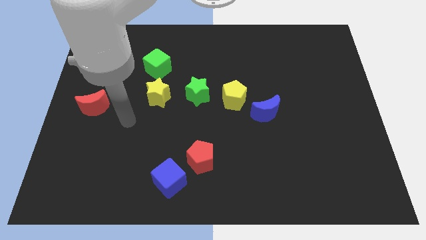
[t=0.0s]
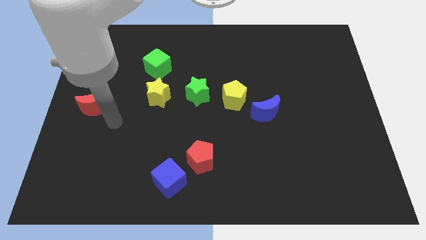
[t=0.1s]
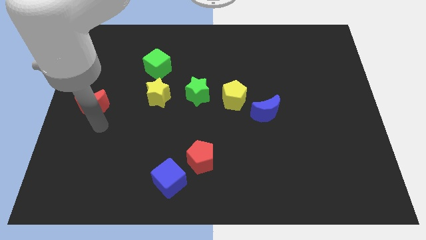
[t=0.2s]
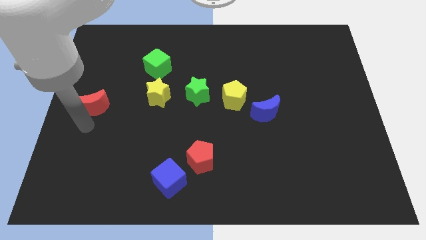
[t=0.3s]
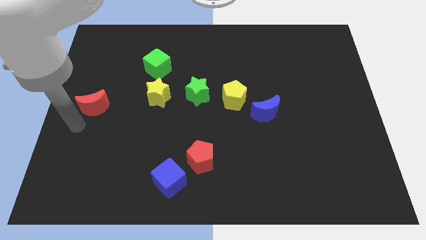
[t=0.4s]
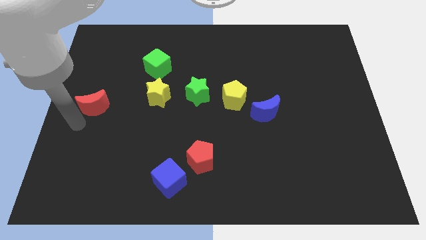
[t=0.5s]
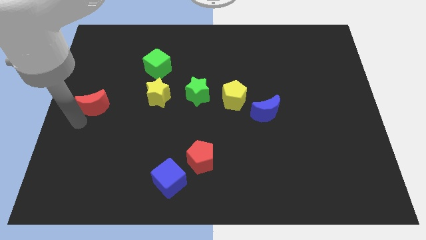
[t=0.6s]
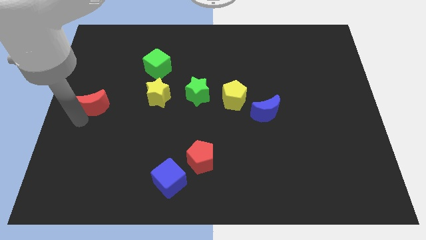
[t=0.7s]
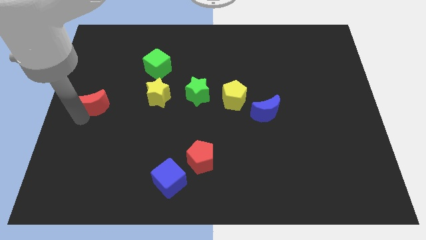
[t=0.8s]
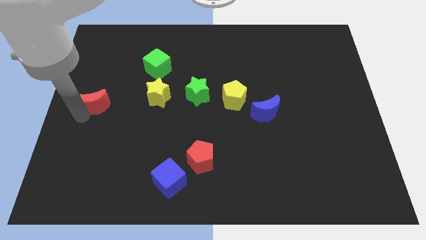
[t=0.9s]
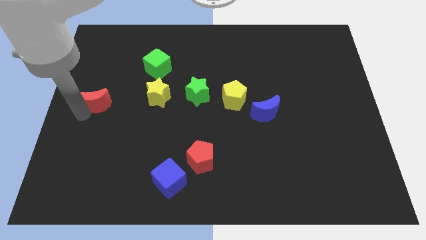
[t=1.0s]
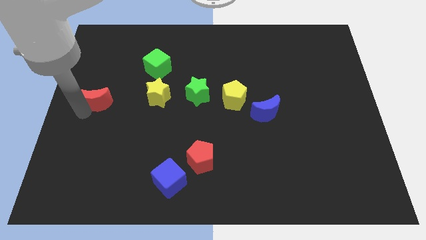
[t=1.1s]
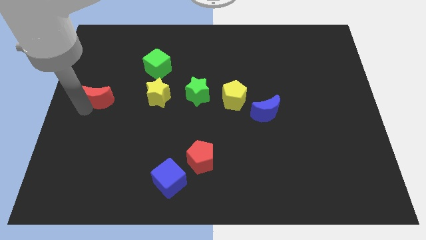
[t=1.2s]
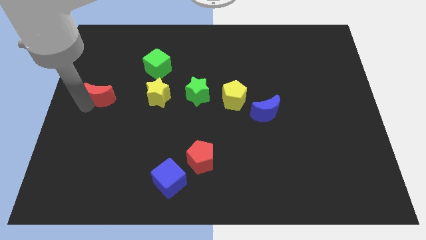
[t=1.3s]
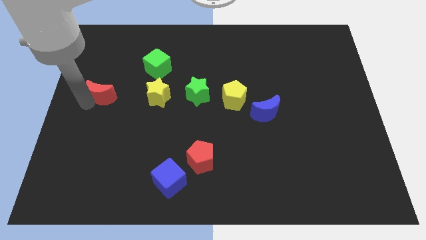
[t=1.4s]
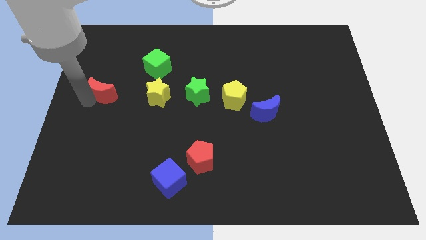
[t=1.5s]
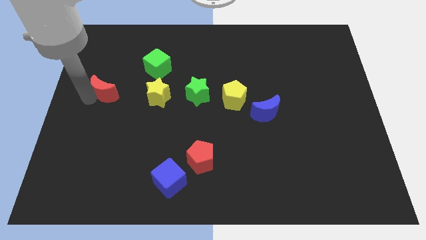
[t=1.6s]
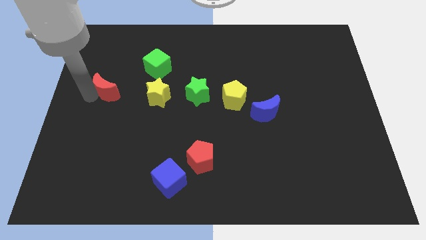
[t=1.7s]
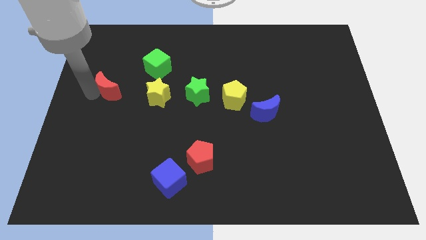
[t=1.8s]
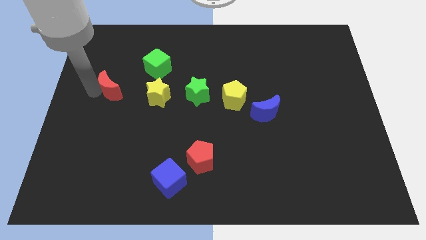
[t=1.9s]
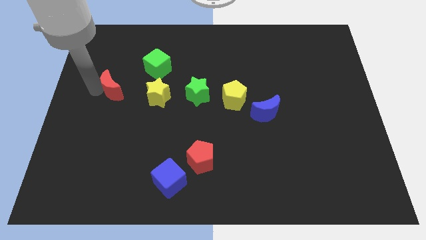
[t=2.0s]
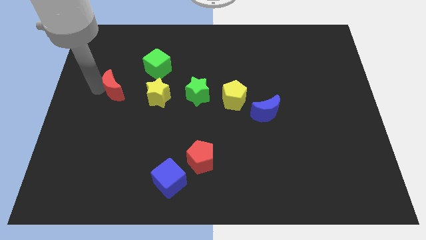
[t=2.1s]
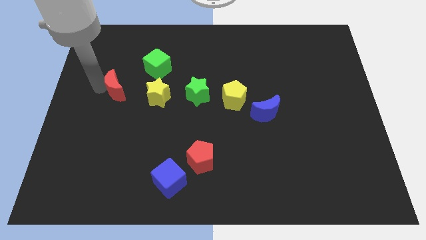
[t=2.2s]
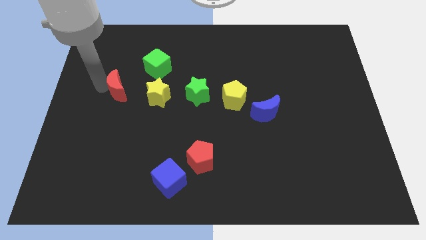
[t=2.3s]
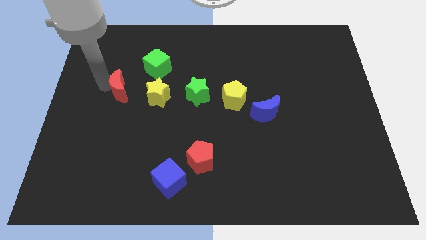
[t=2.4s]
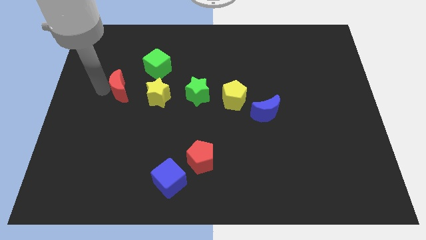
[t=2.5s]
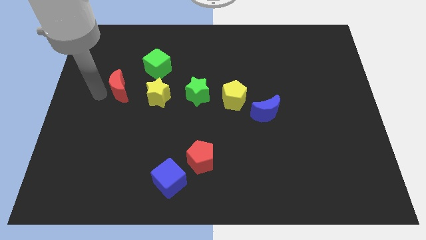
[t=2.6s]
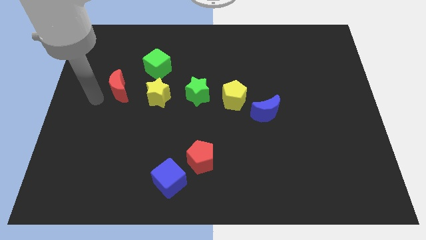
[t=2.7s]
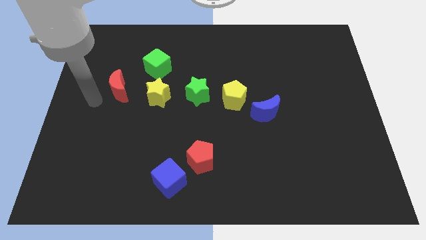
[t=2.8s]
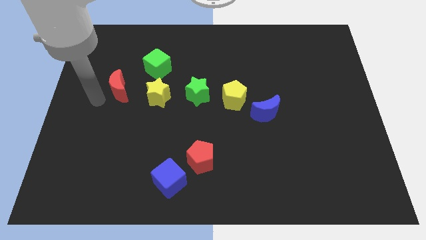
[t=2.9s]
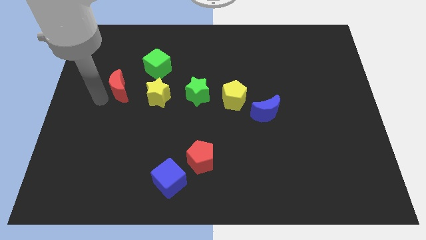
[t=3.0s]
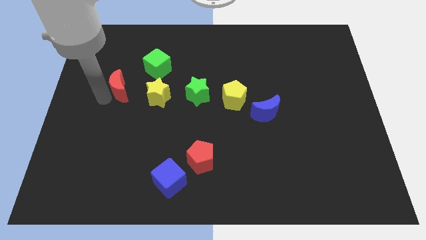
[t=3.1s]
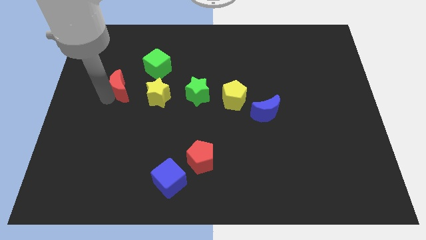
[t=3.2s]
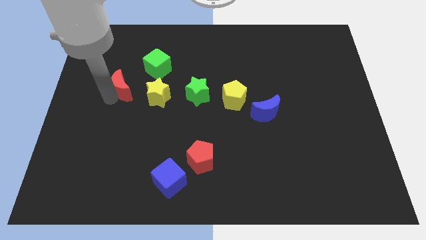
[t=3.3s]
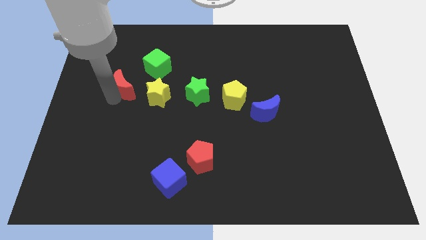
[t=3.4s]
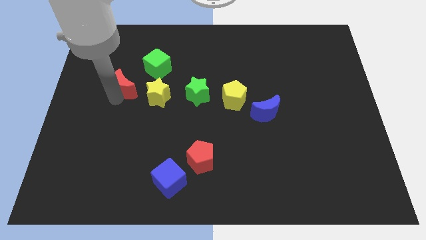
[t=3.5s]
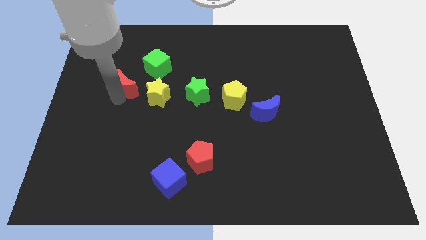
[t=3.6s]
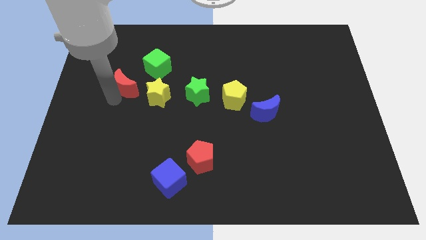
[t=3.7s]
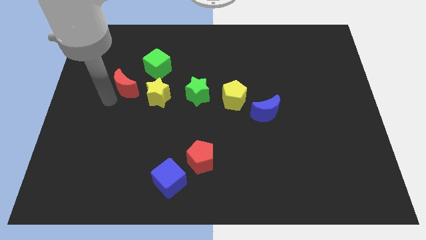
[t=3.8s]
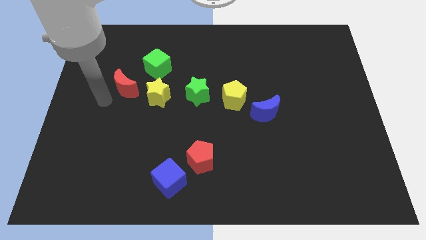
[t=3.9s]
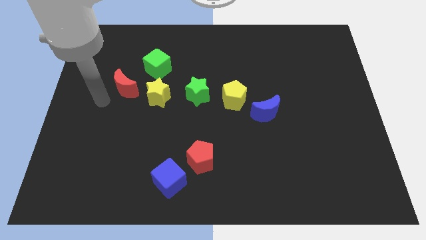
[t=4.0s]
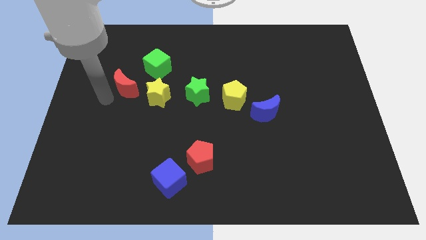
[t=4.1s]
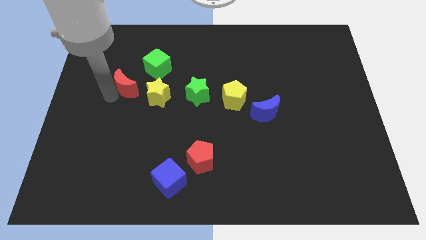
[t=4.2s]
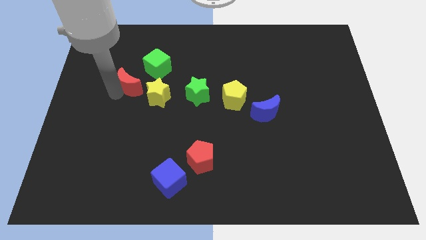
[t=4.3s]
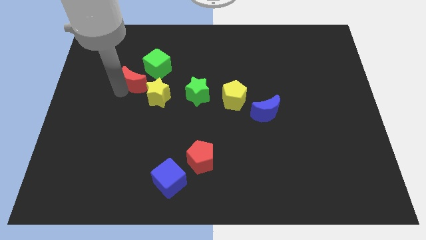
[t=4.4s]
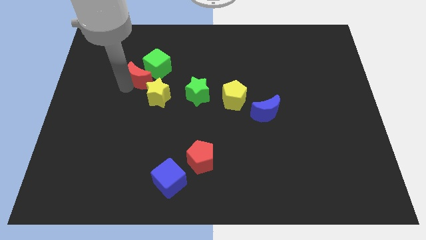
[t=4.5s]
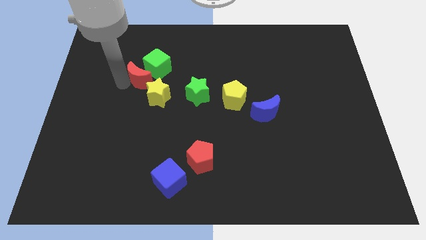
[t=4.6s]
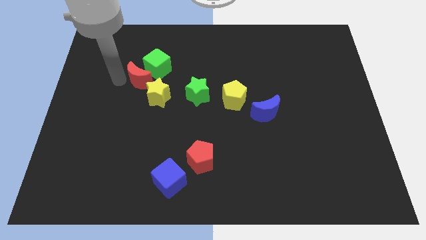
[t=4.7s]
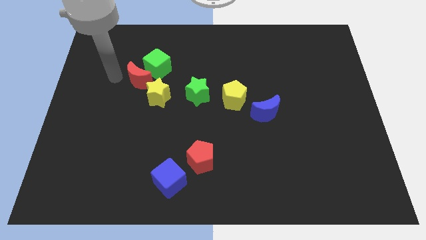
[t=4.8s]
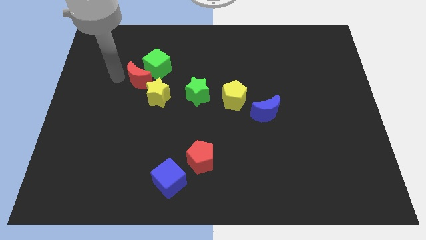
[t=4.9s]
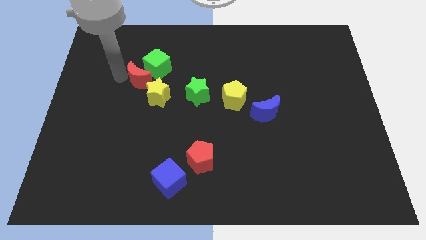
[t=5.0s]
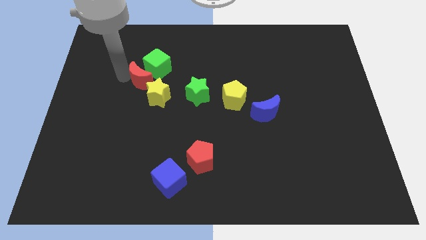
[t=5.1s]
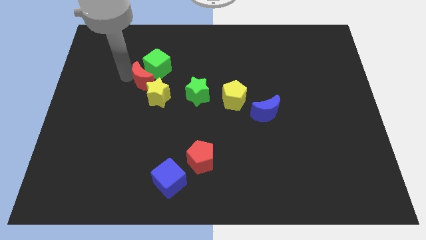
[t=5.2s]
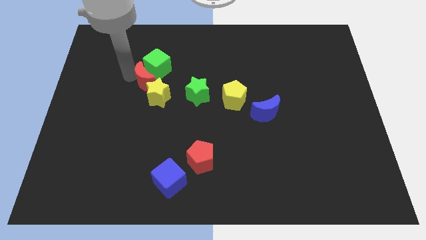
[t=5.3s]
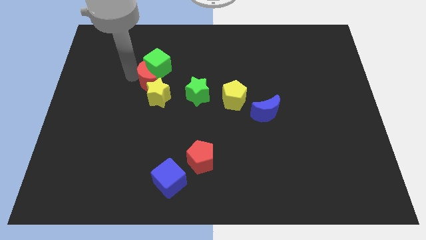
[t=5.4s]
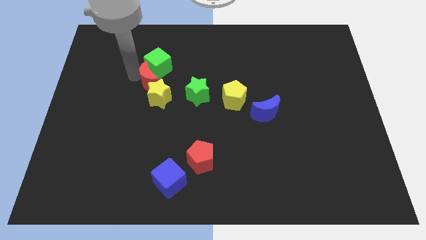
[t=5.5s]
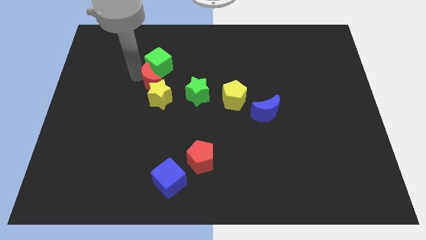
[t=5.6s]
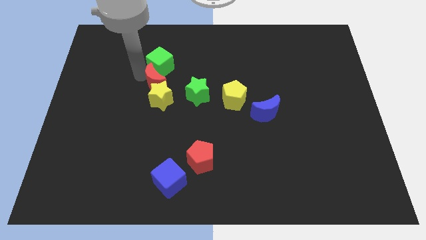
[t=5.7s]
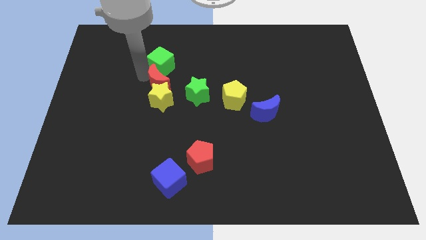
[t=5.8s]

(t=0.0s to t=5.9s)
slide the red moon diagonally up and to the right of the yellow star

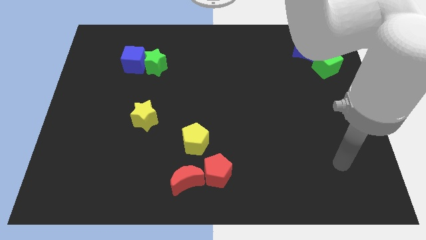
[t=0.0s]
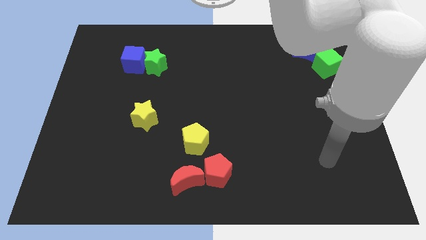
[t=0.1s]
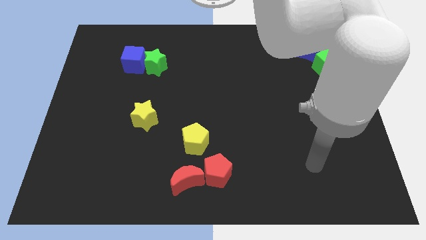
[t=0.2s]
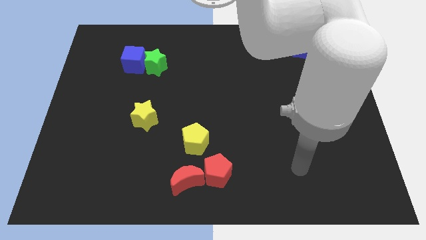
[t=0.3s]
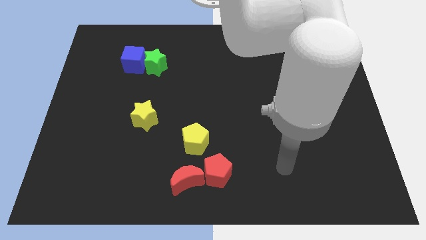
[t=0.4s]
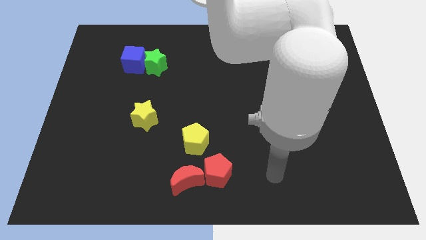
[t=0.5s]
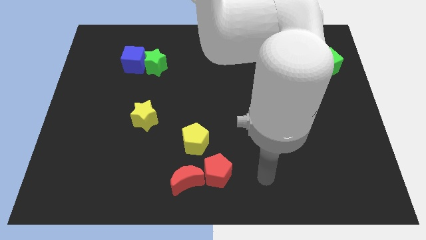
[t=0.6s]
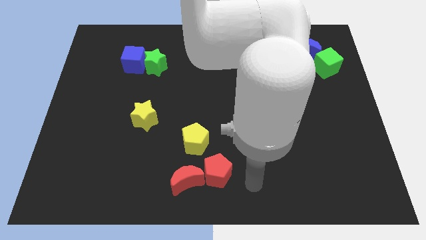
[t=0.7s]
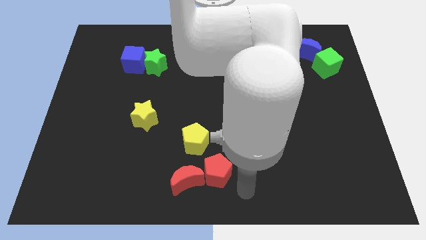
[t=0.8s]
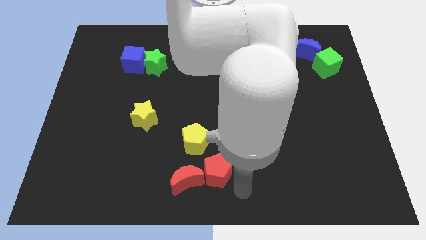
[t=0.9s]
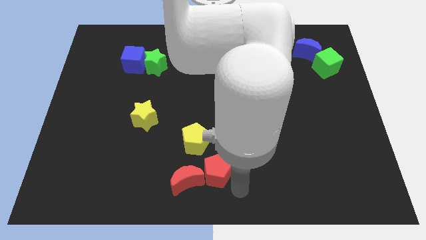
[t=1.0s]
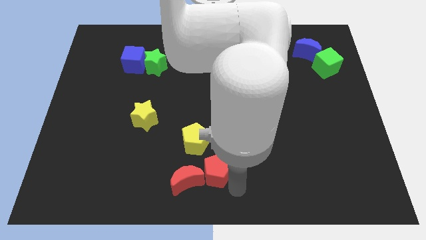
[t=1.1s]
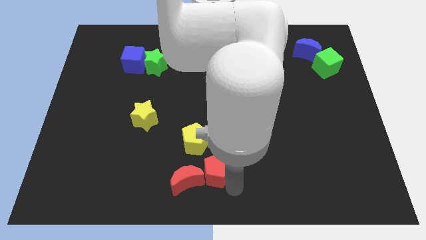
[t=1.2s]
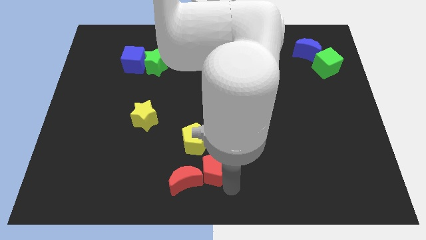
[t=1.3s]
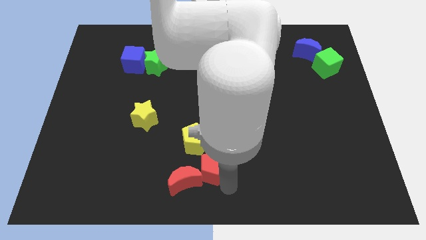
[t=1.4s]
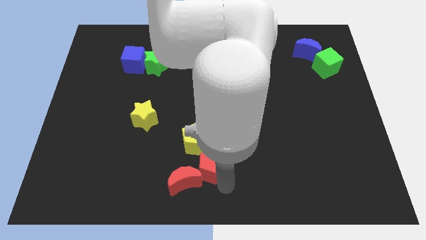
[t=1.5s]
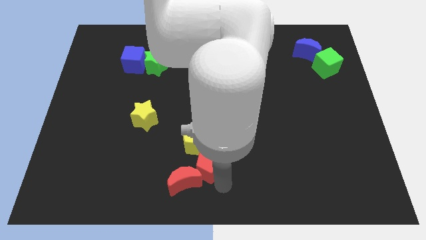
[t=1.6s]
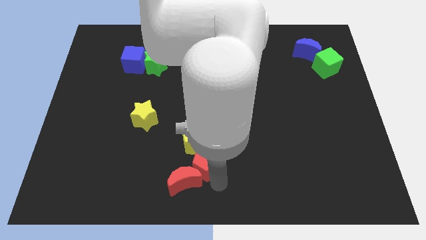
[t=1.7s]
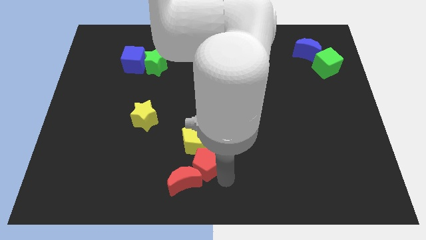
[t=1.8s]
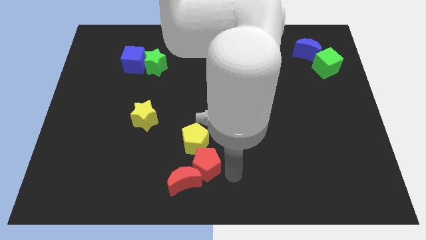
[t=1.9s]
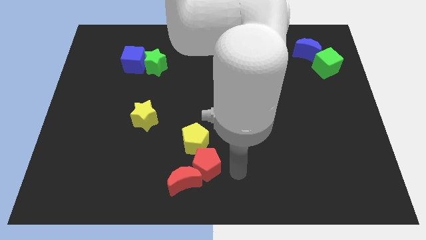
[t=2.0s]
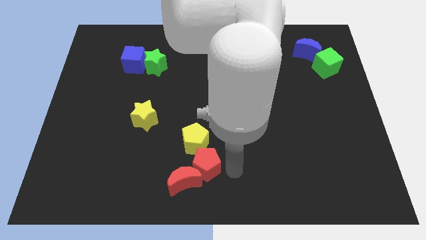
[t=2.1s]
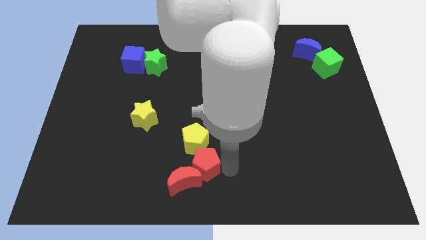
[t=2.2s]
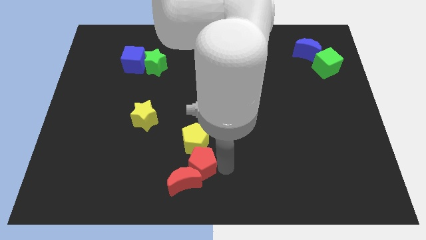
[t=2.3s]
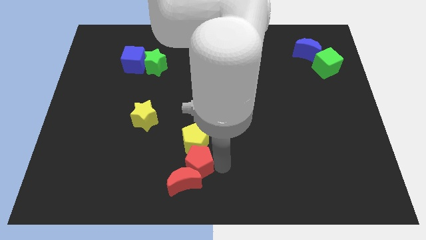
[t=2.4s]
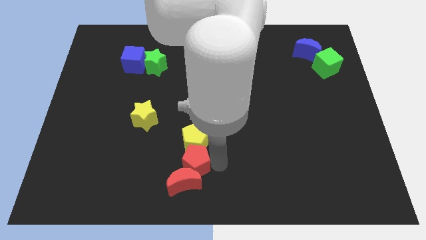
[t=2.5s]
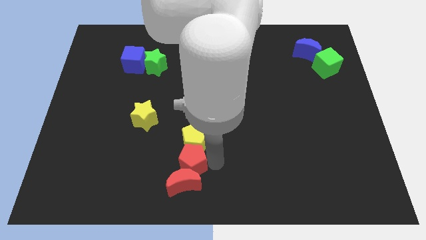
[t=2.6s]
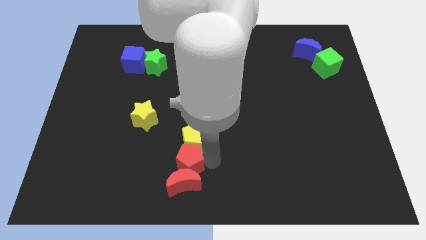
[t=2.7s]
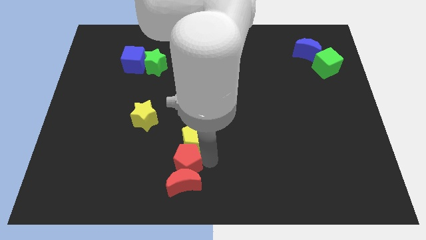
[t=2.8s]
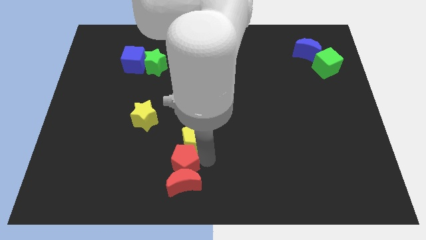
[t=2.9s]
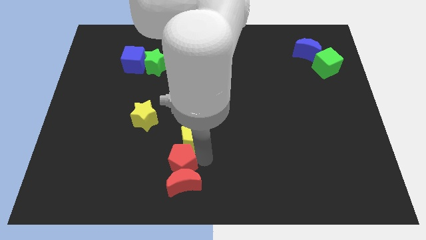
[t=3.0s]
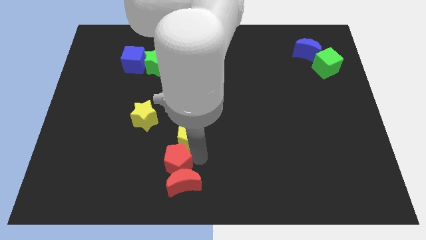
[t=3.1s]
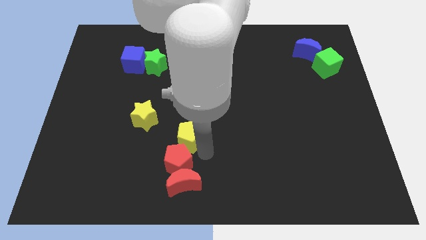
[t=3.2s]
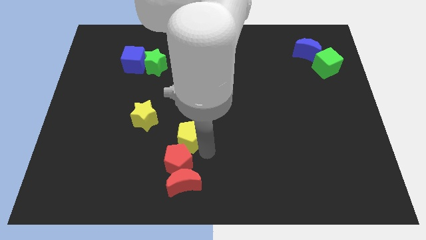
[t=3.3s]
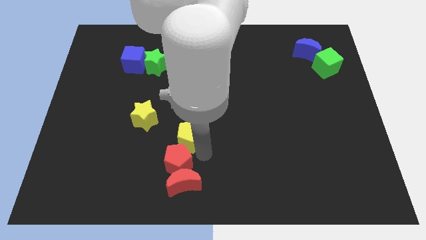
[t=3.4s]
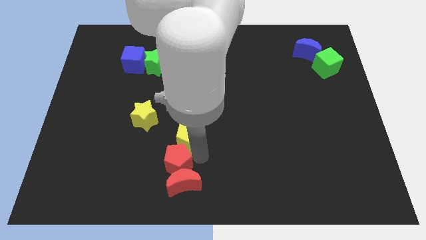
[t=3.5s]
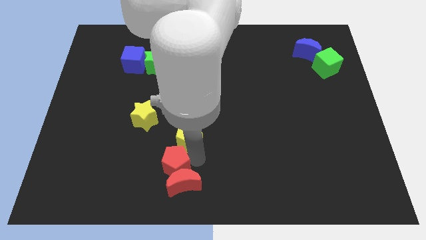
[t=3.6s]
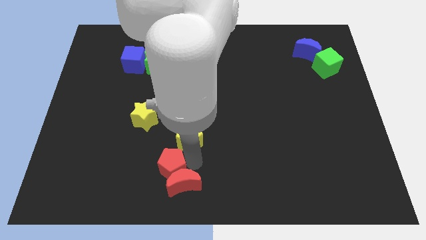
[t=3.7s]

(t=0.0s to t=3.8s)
push the red pentagon left of the red moon
